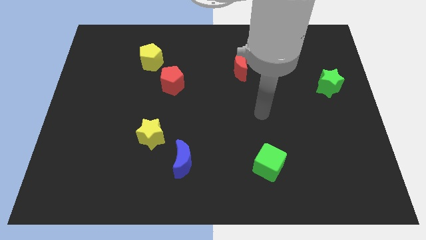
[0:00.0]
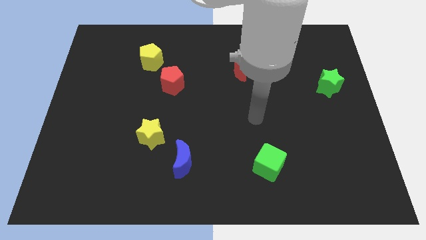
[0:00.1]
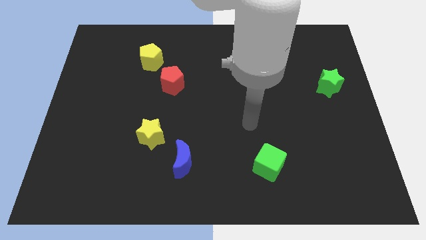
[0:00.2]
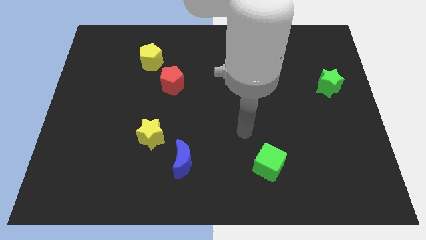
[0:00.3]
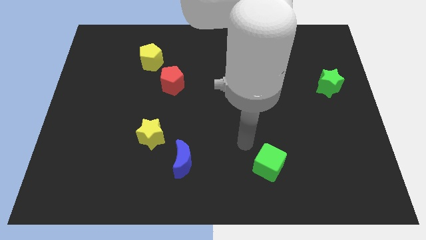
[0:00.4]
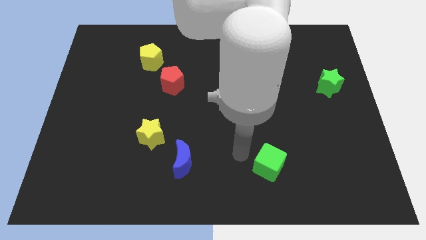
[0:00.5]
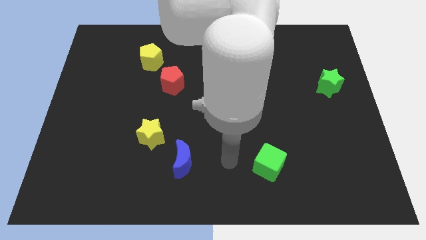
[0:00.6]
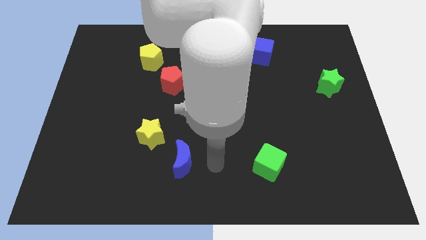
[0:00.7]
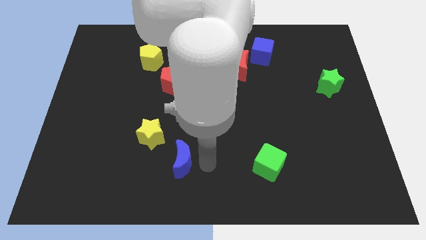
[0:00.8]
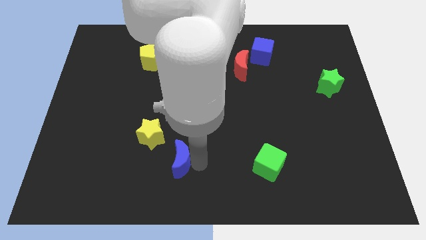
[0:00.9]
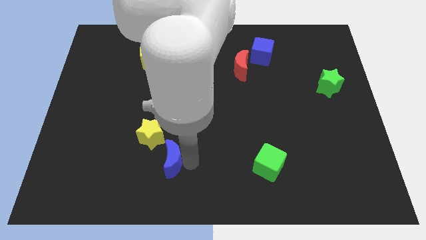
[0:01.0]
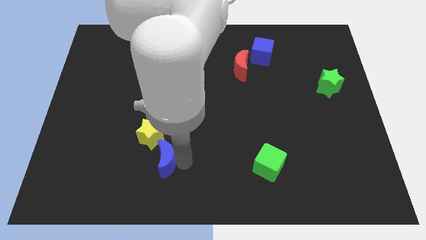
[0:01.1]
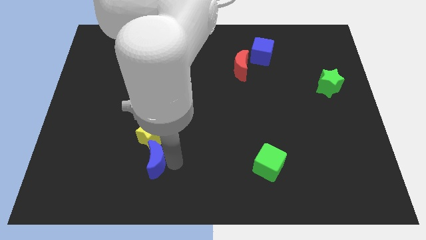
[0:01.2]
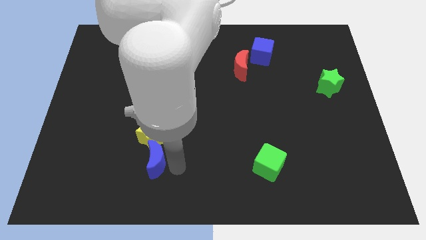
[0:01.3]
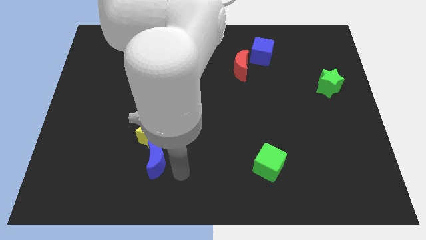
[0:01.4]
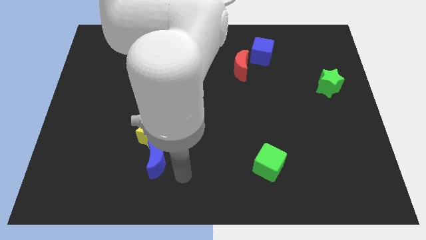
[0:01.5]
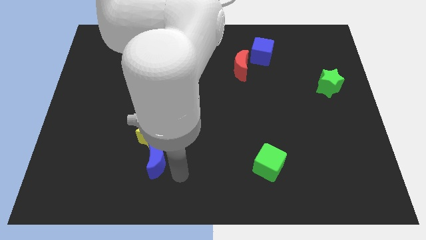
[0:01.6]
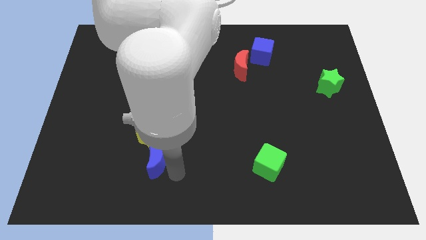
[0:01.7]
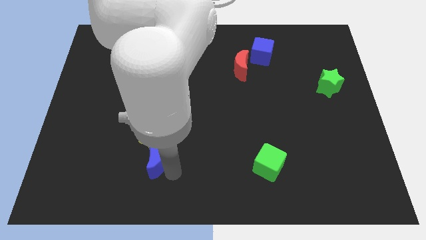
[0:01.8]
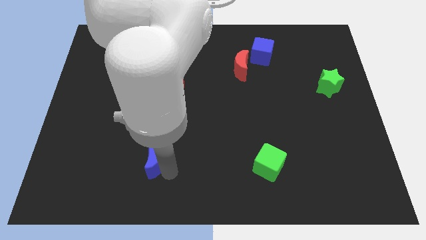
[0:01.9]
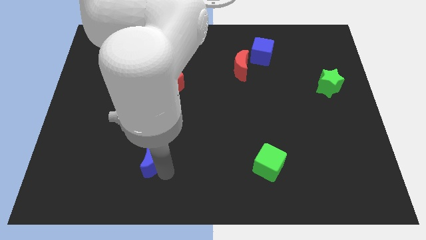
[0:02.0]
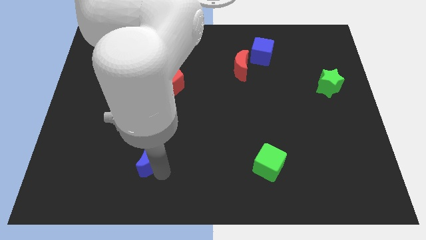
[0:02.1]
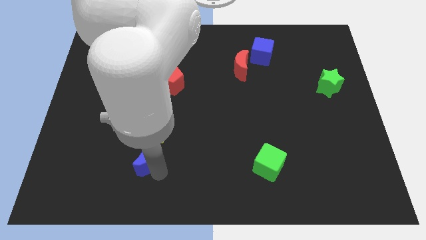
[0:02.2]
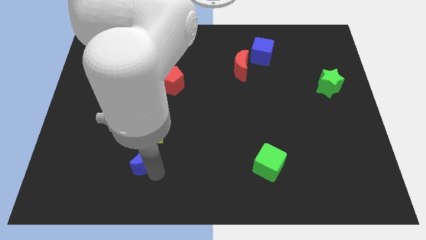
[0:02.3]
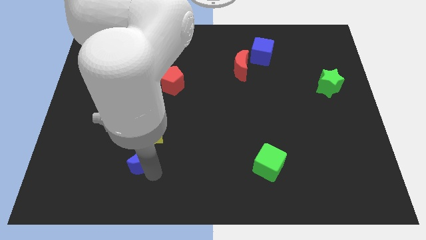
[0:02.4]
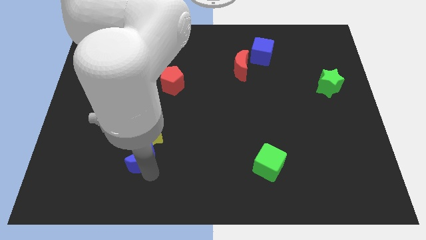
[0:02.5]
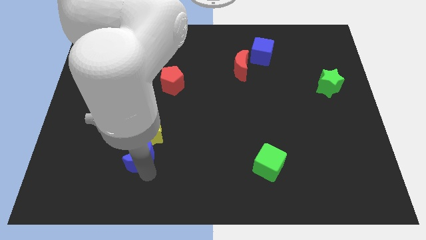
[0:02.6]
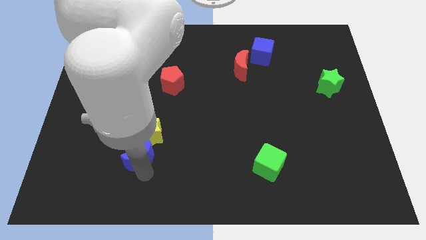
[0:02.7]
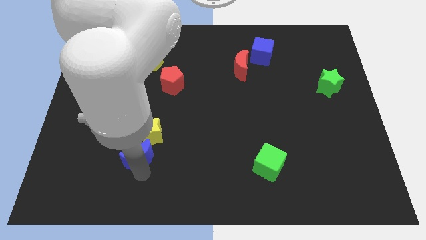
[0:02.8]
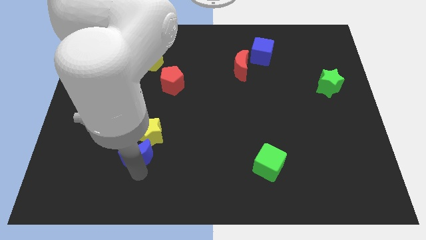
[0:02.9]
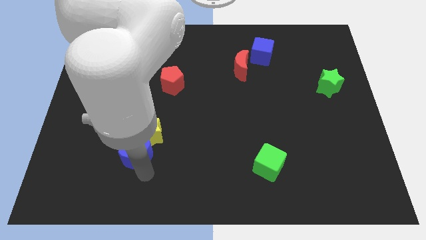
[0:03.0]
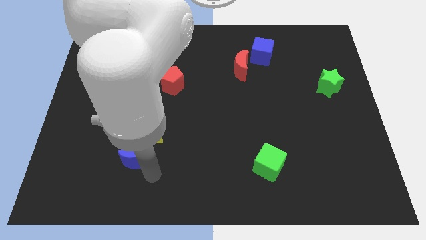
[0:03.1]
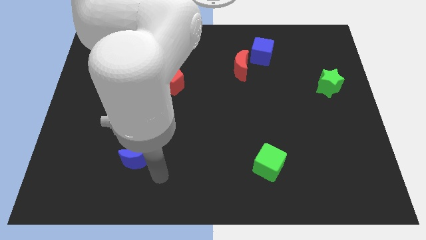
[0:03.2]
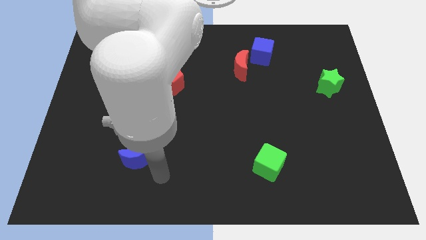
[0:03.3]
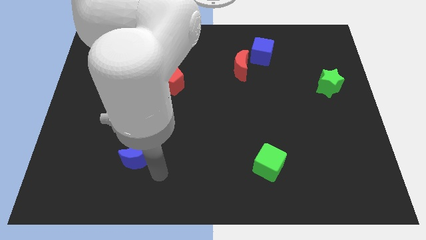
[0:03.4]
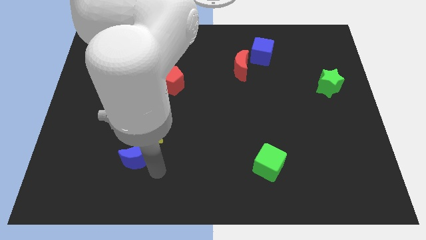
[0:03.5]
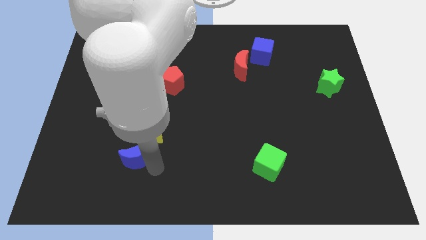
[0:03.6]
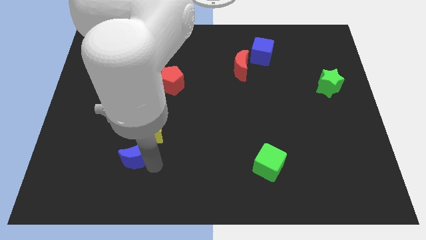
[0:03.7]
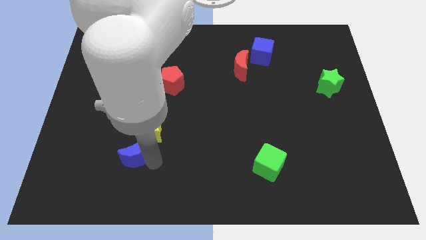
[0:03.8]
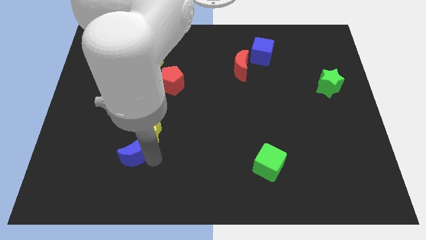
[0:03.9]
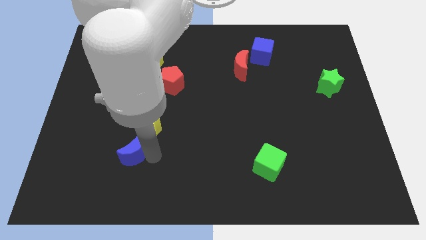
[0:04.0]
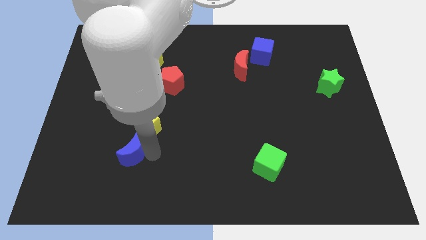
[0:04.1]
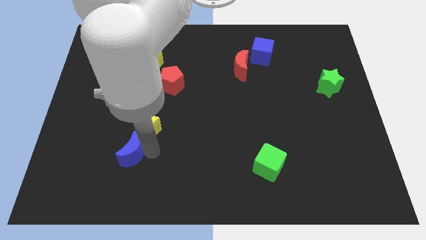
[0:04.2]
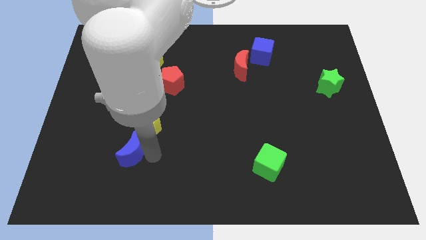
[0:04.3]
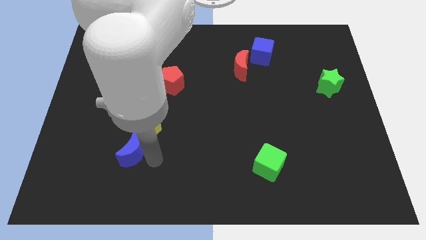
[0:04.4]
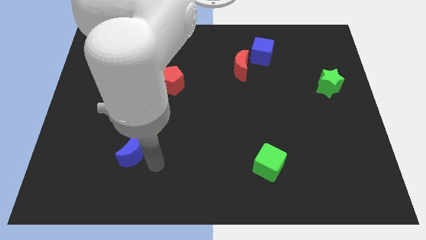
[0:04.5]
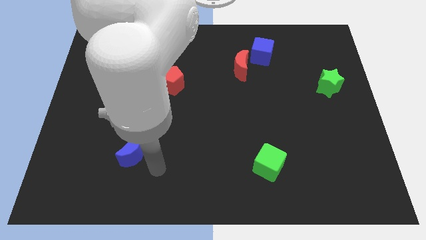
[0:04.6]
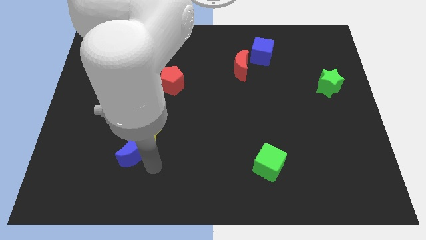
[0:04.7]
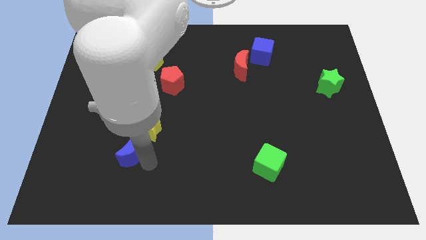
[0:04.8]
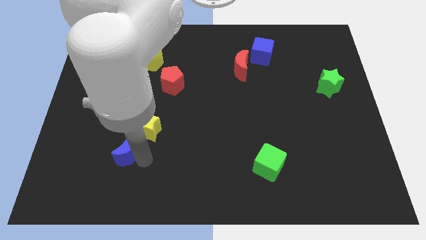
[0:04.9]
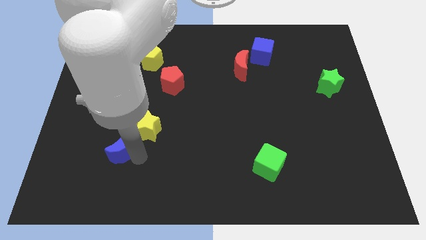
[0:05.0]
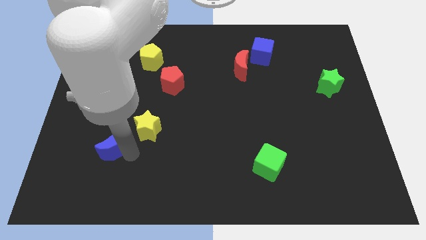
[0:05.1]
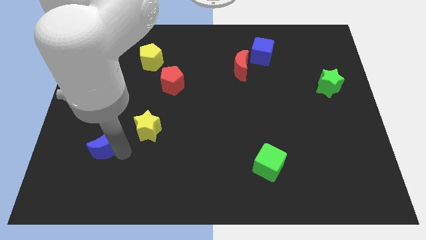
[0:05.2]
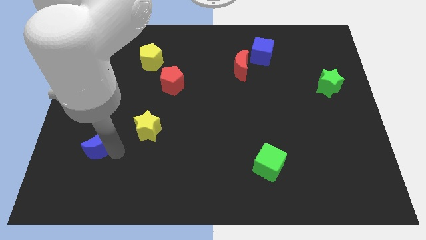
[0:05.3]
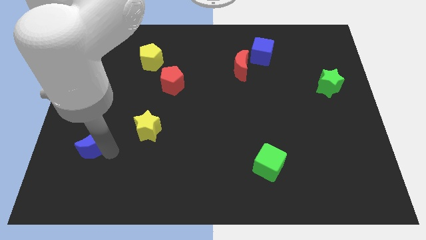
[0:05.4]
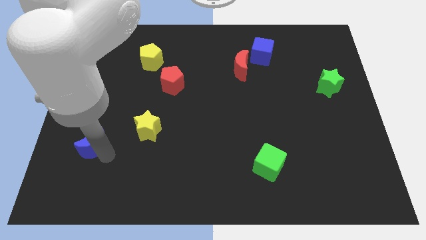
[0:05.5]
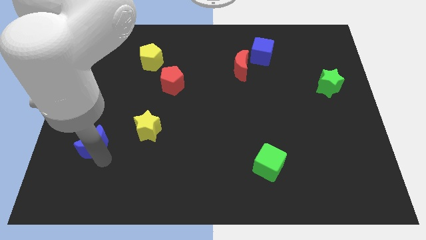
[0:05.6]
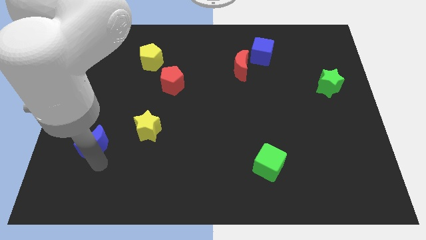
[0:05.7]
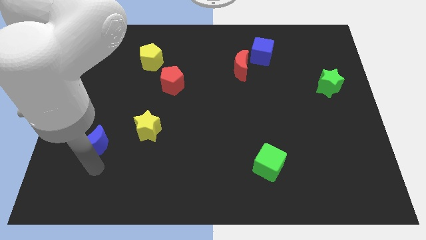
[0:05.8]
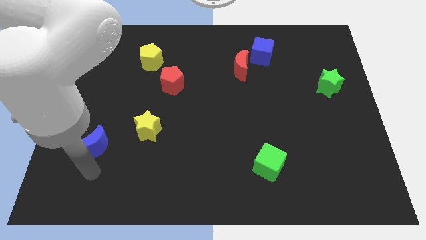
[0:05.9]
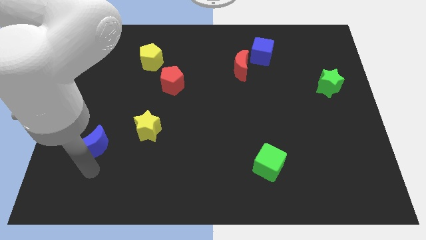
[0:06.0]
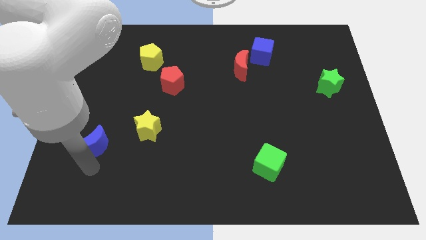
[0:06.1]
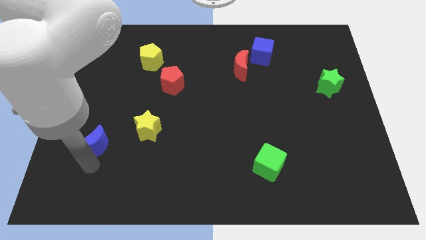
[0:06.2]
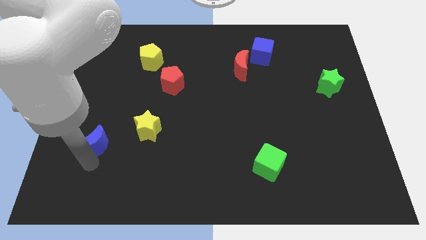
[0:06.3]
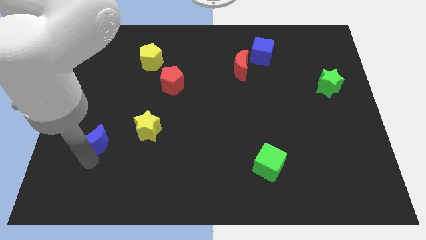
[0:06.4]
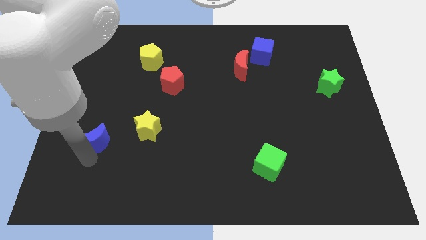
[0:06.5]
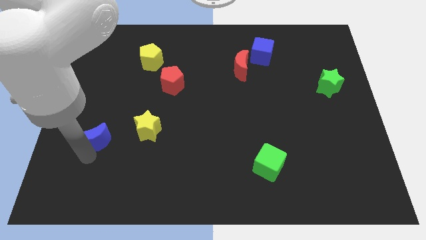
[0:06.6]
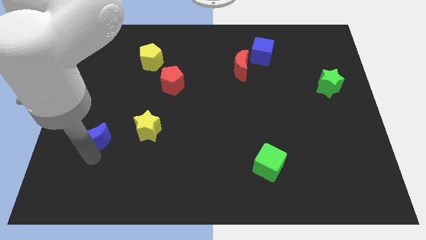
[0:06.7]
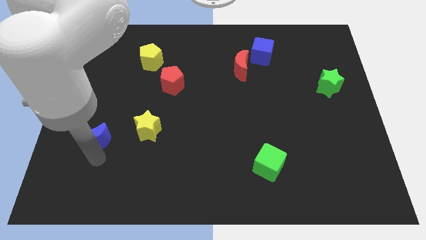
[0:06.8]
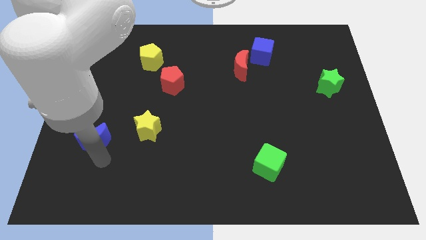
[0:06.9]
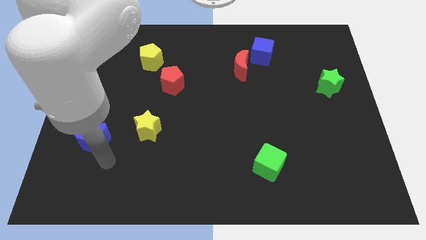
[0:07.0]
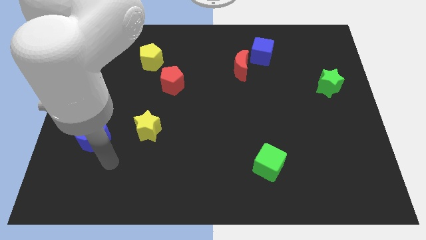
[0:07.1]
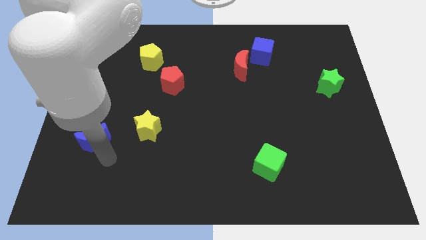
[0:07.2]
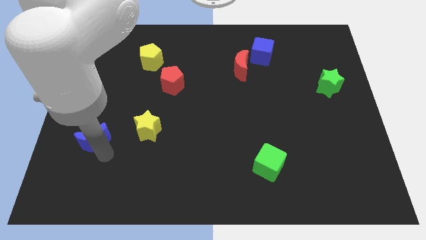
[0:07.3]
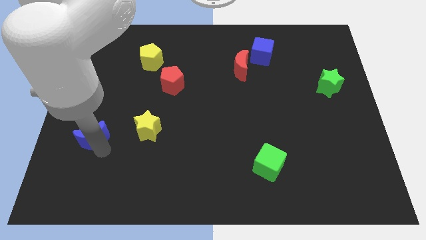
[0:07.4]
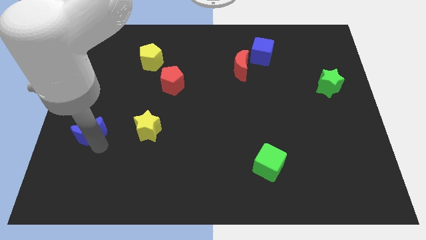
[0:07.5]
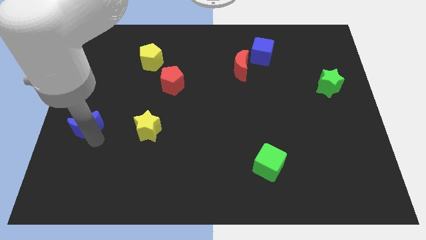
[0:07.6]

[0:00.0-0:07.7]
put the blue moon to the center left
